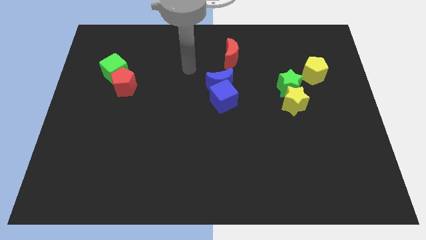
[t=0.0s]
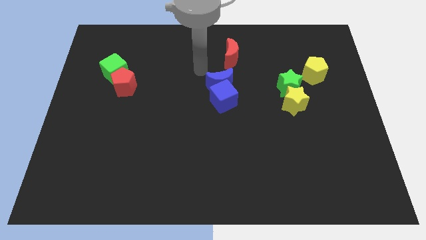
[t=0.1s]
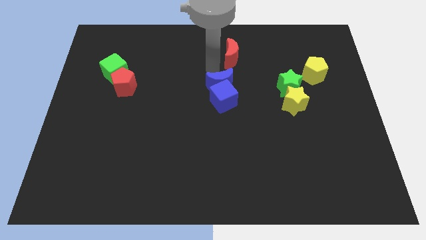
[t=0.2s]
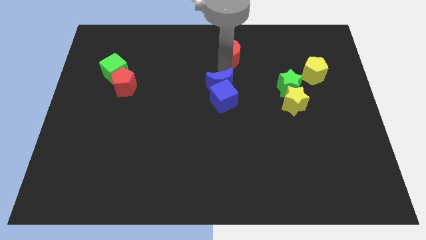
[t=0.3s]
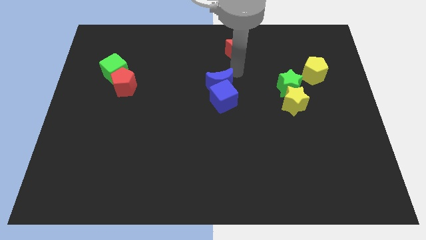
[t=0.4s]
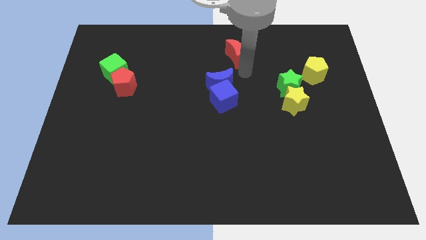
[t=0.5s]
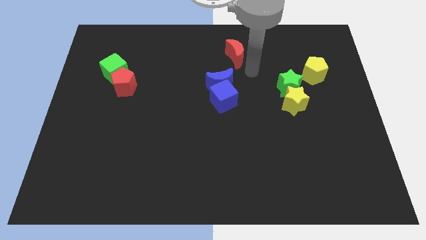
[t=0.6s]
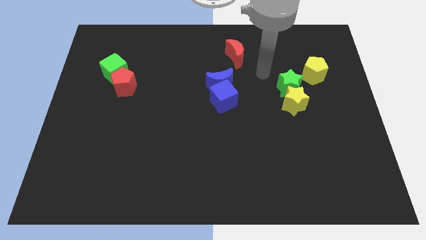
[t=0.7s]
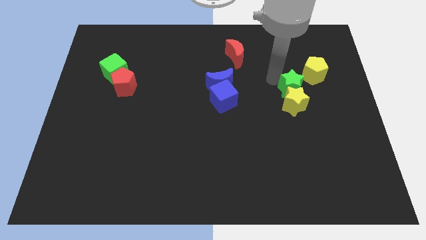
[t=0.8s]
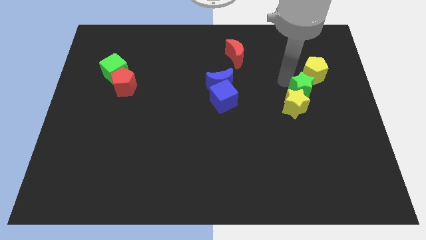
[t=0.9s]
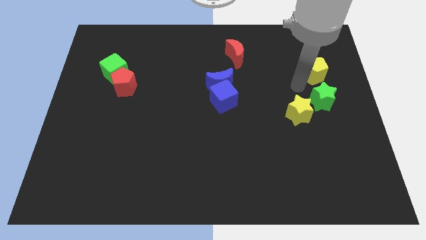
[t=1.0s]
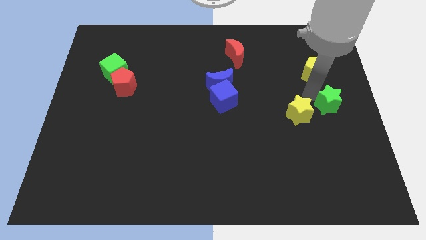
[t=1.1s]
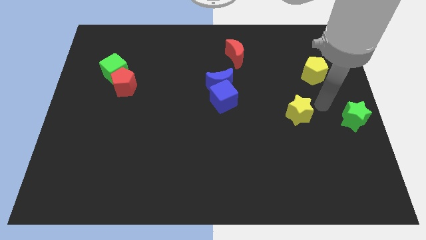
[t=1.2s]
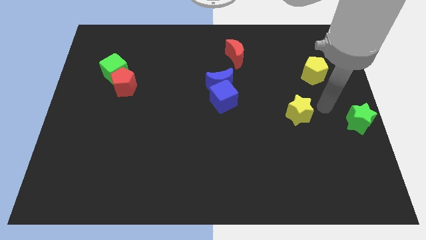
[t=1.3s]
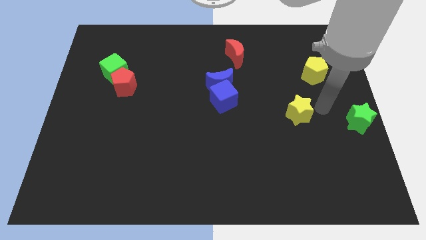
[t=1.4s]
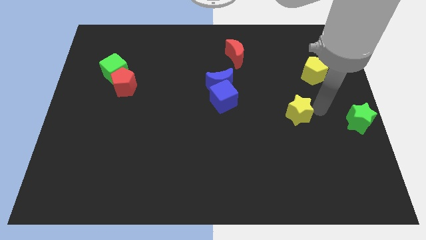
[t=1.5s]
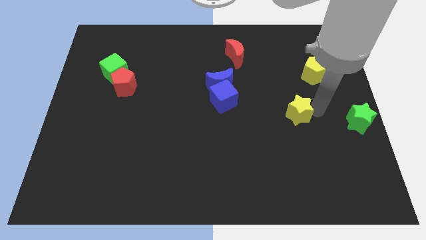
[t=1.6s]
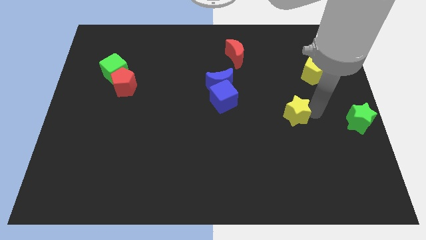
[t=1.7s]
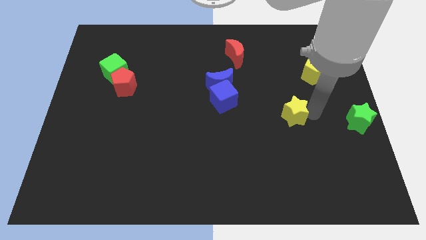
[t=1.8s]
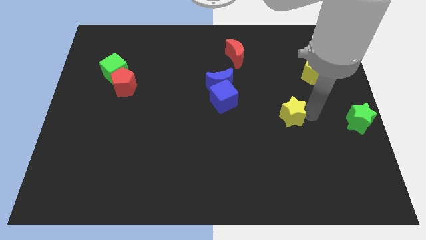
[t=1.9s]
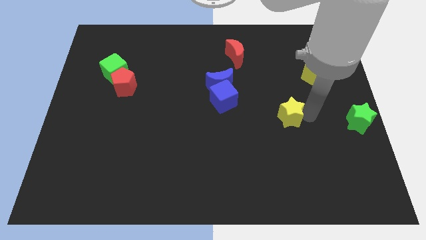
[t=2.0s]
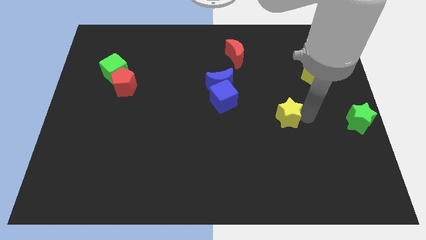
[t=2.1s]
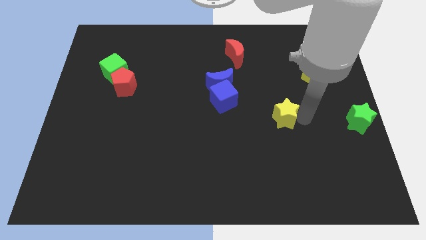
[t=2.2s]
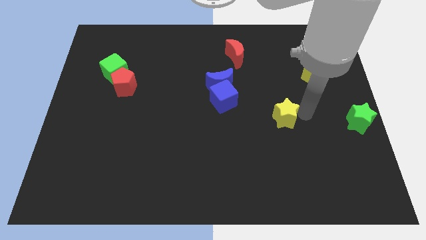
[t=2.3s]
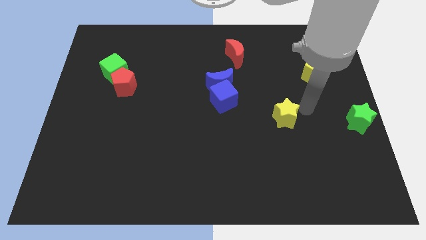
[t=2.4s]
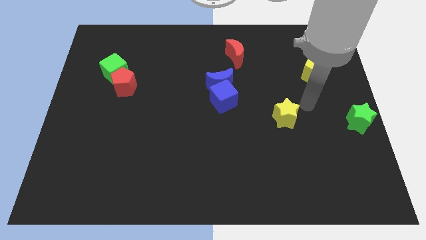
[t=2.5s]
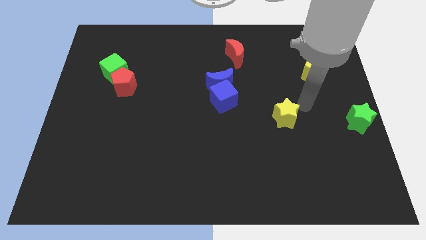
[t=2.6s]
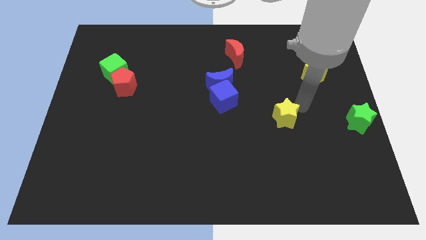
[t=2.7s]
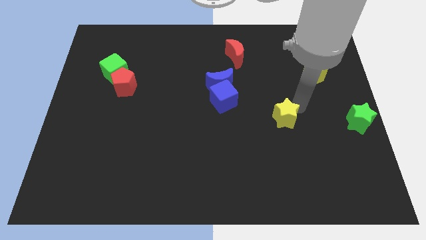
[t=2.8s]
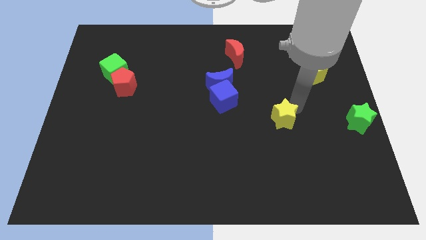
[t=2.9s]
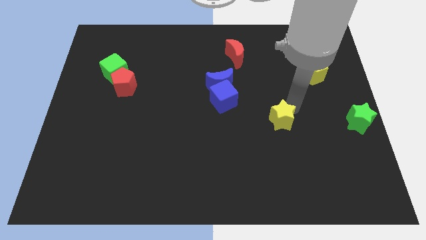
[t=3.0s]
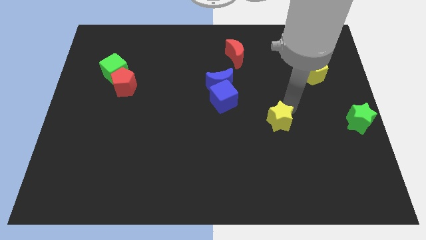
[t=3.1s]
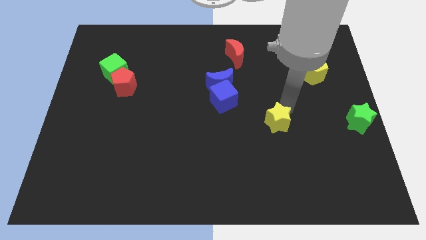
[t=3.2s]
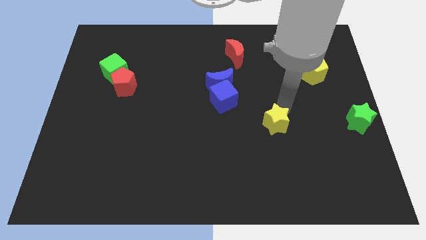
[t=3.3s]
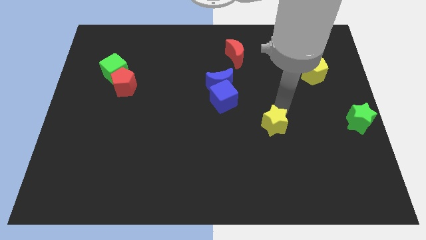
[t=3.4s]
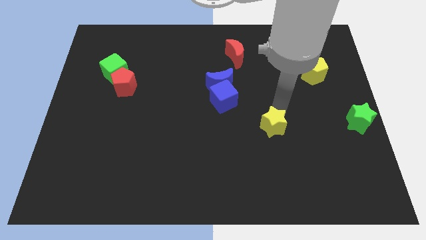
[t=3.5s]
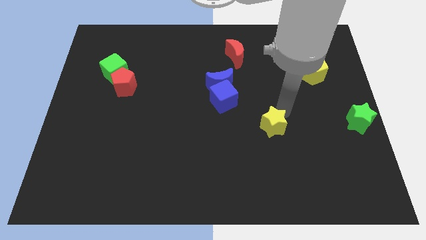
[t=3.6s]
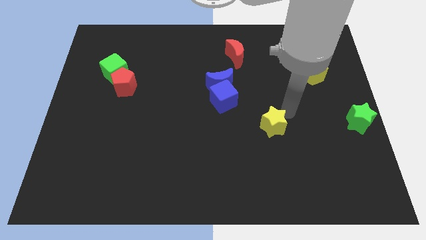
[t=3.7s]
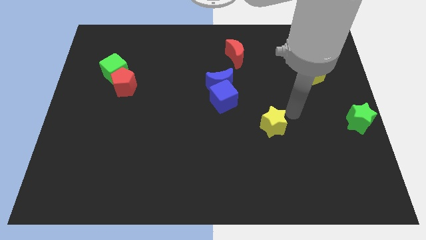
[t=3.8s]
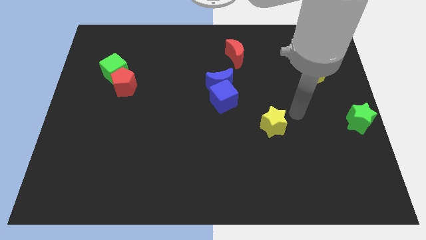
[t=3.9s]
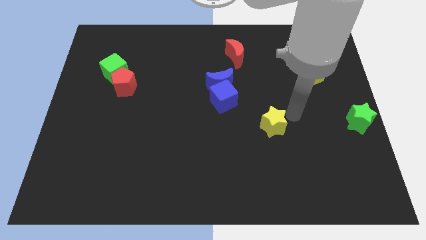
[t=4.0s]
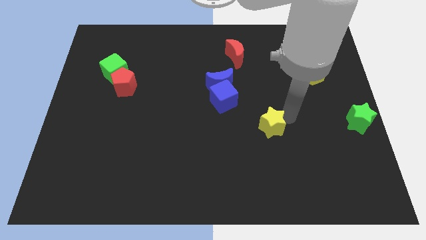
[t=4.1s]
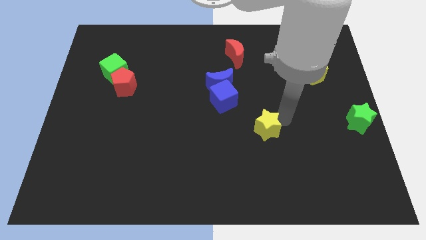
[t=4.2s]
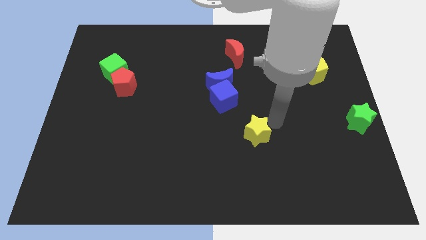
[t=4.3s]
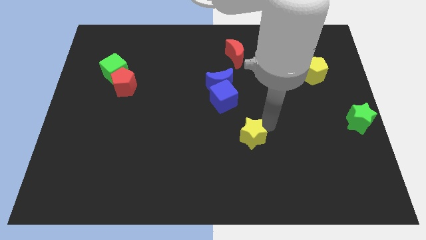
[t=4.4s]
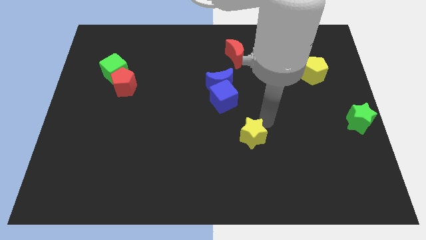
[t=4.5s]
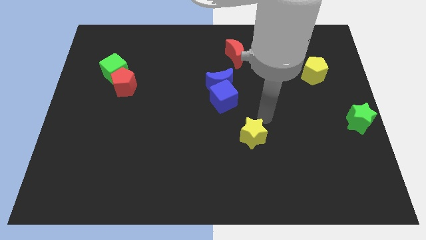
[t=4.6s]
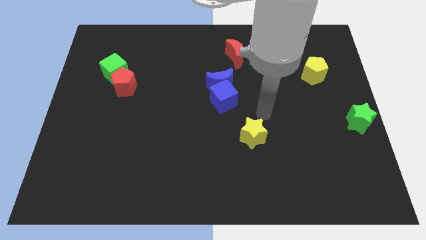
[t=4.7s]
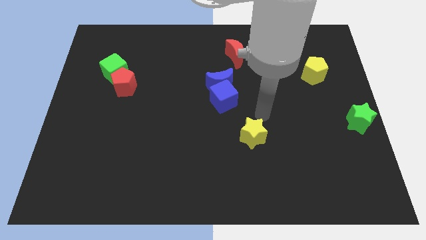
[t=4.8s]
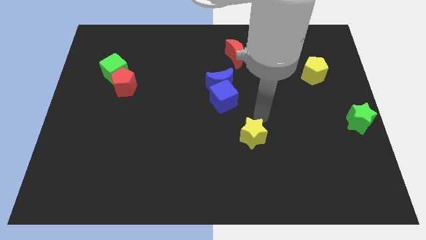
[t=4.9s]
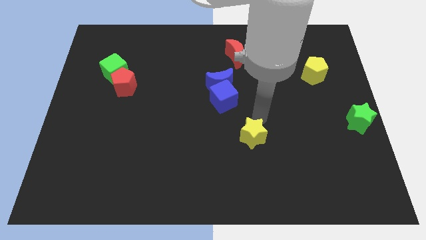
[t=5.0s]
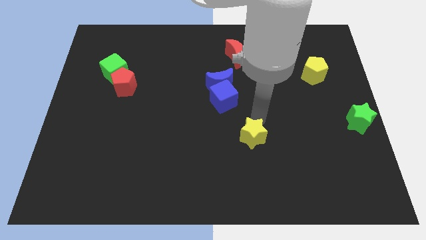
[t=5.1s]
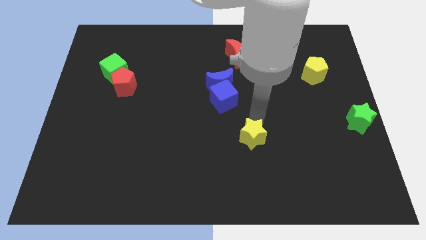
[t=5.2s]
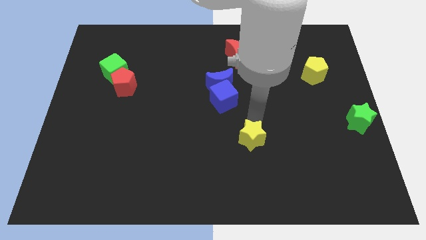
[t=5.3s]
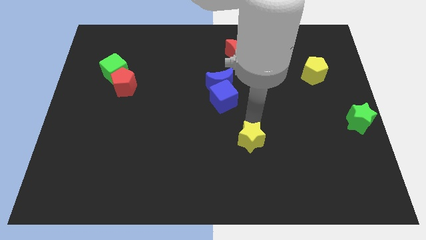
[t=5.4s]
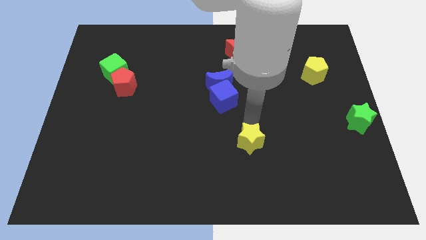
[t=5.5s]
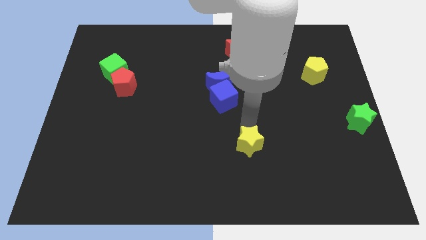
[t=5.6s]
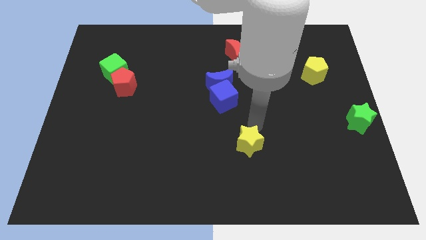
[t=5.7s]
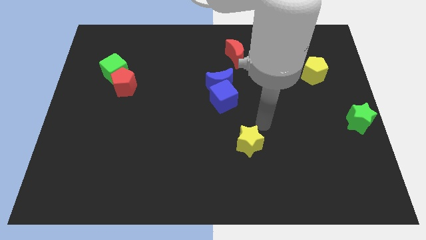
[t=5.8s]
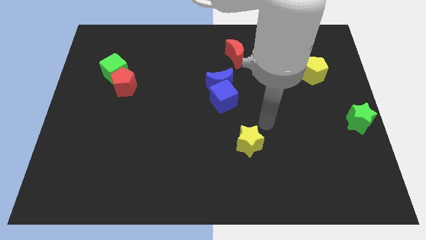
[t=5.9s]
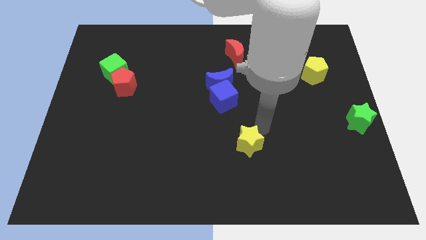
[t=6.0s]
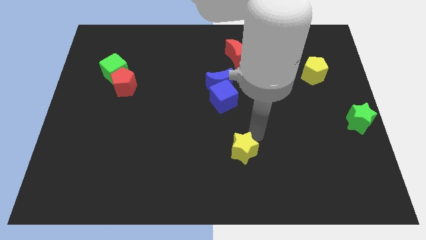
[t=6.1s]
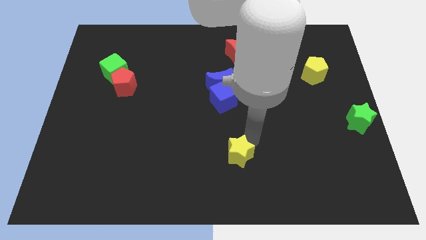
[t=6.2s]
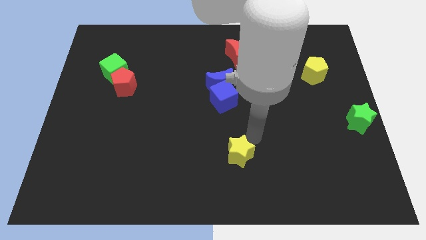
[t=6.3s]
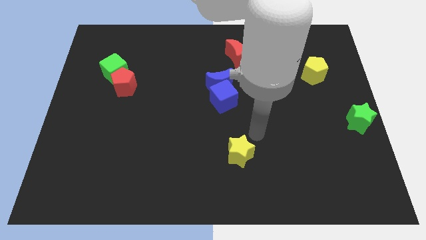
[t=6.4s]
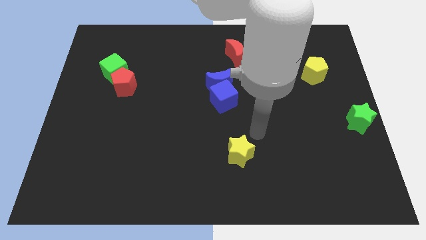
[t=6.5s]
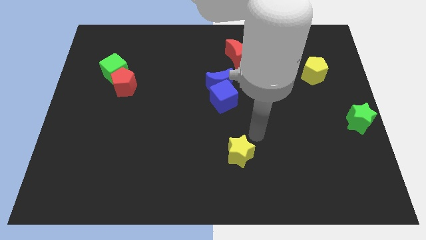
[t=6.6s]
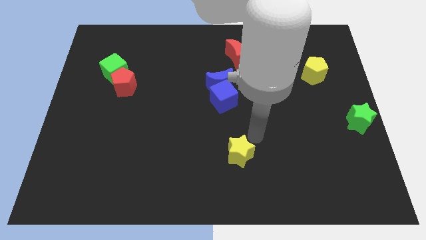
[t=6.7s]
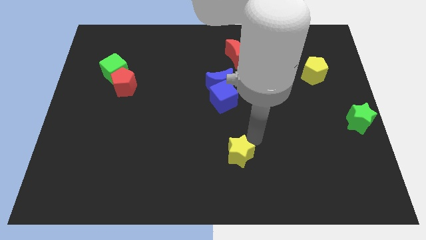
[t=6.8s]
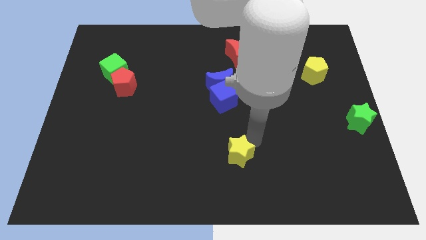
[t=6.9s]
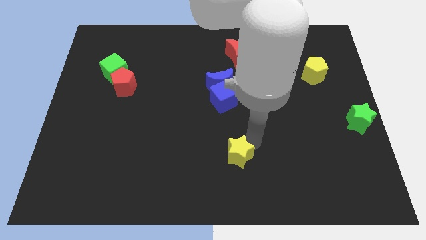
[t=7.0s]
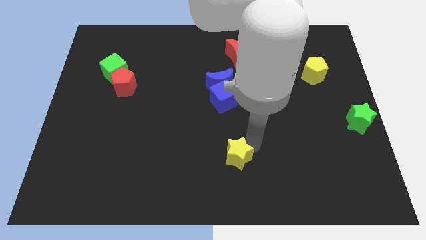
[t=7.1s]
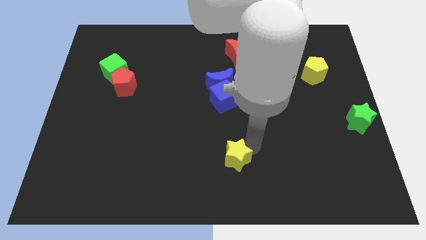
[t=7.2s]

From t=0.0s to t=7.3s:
move the yellow star to the bottom
